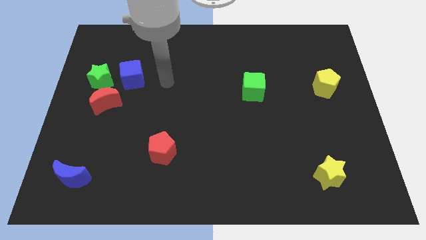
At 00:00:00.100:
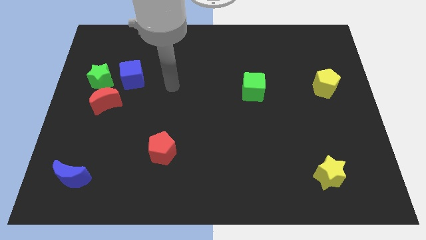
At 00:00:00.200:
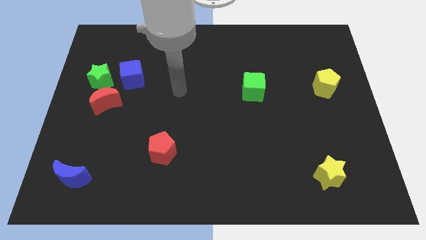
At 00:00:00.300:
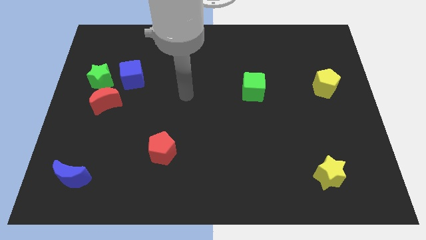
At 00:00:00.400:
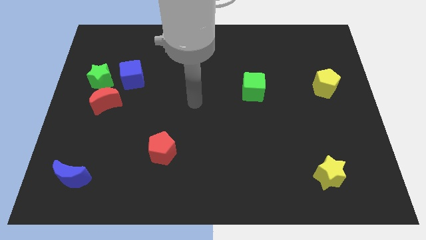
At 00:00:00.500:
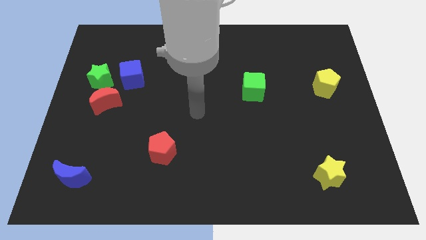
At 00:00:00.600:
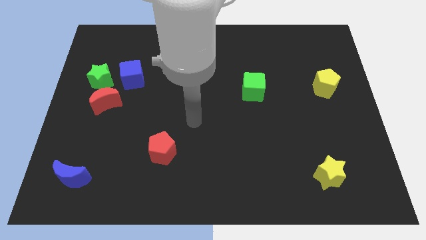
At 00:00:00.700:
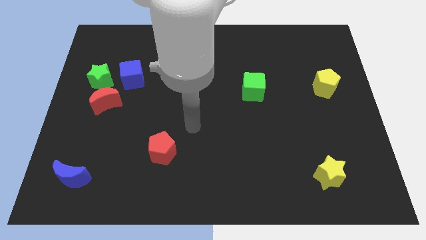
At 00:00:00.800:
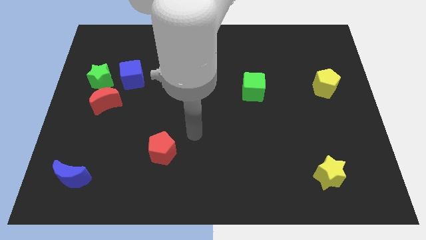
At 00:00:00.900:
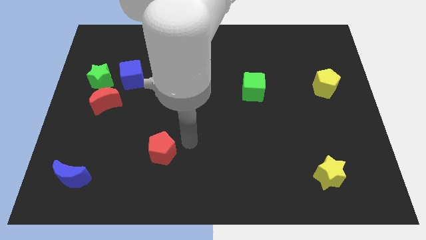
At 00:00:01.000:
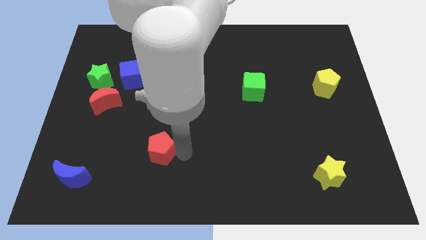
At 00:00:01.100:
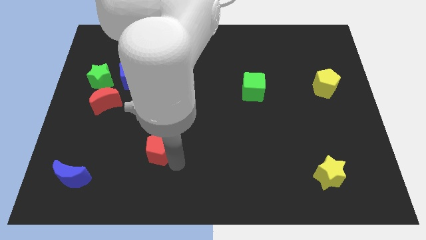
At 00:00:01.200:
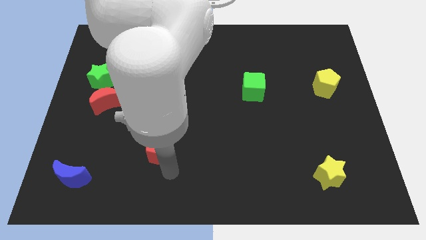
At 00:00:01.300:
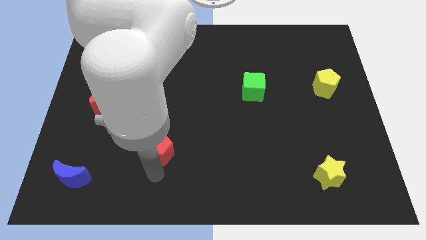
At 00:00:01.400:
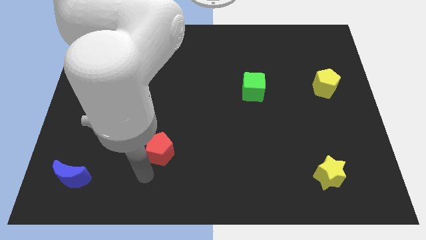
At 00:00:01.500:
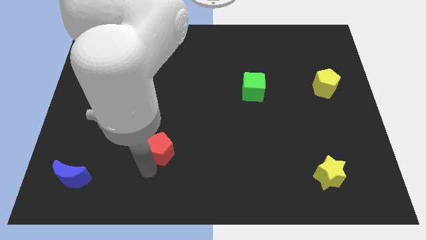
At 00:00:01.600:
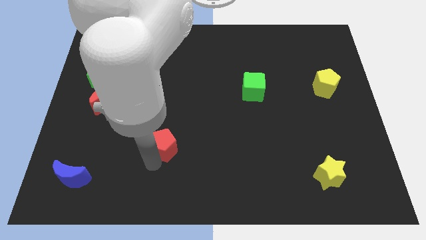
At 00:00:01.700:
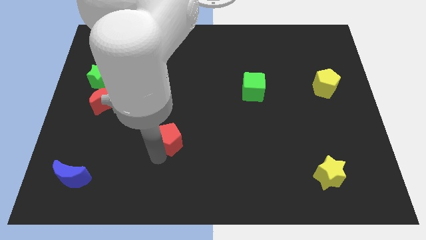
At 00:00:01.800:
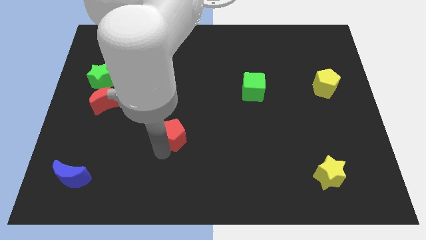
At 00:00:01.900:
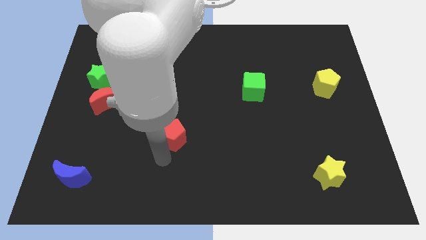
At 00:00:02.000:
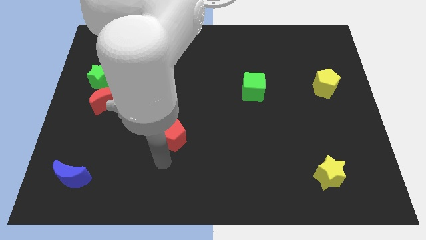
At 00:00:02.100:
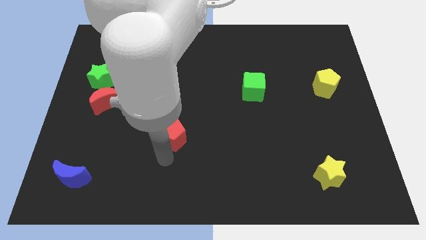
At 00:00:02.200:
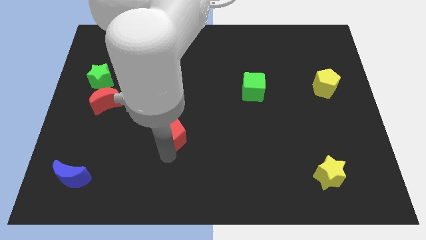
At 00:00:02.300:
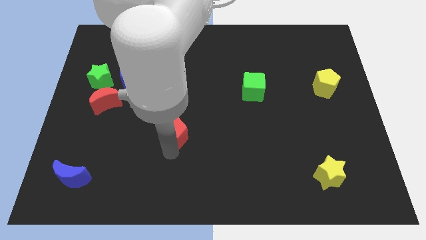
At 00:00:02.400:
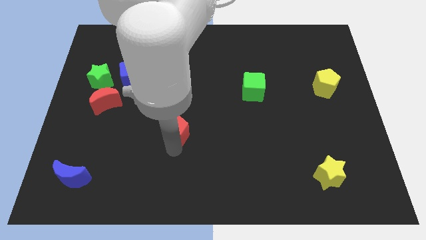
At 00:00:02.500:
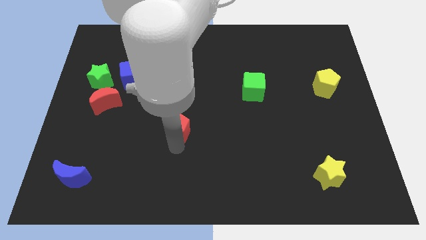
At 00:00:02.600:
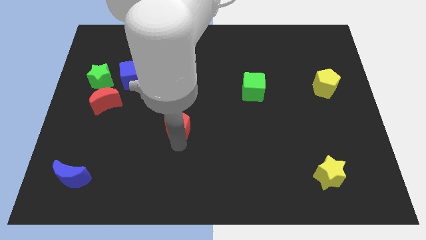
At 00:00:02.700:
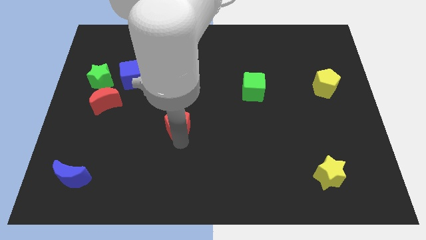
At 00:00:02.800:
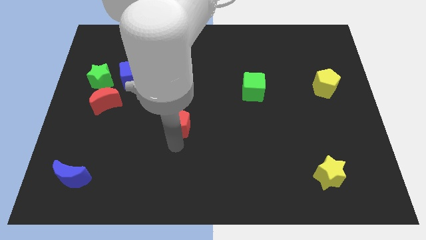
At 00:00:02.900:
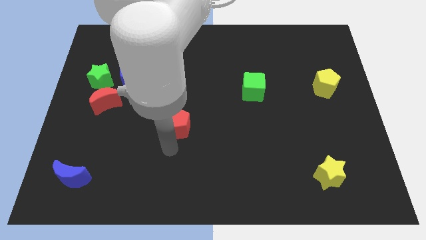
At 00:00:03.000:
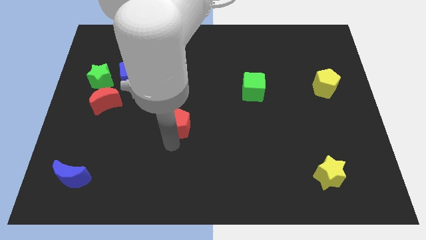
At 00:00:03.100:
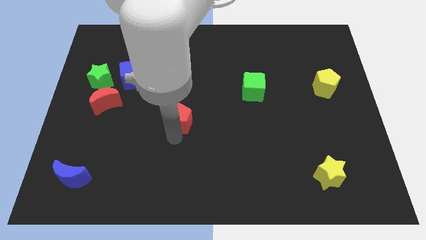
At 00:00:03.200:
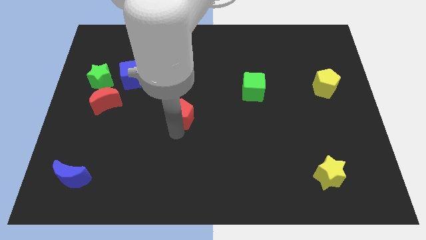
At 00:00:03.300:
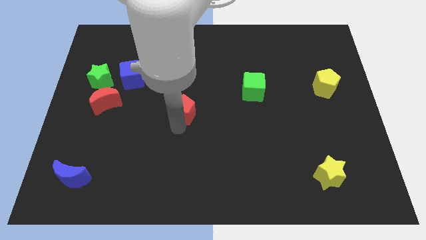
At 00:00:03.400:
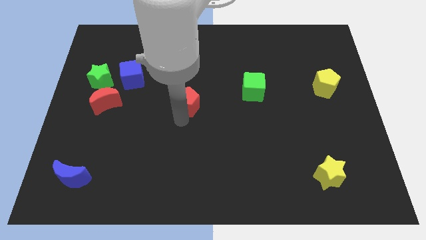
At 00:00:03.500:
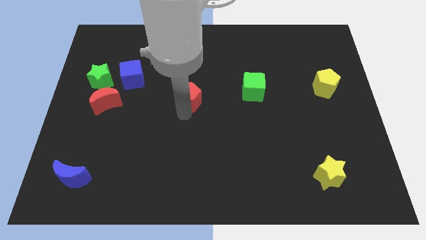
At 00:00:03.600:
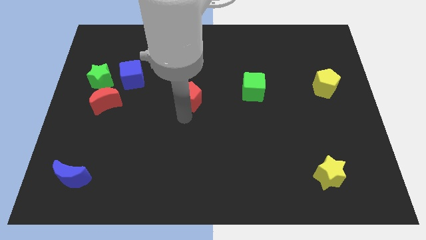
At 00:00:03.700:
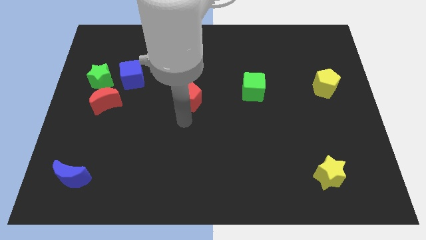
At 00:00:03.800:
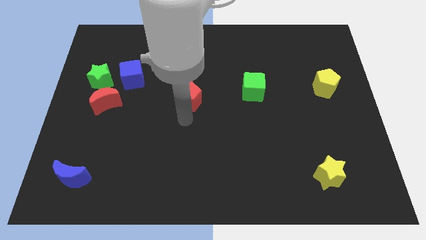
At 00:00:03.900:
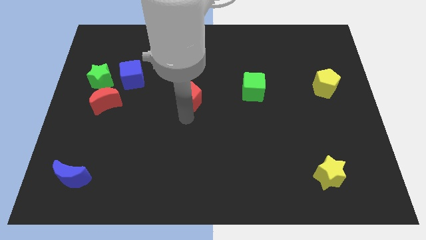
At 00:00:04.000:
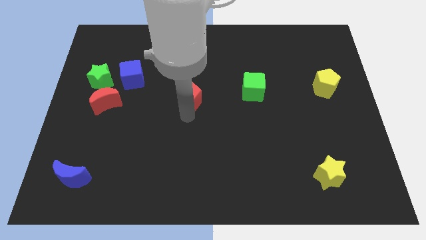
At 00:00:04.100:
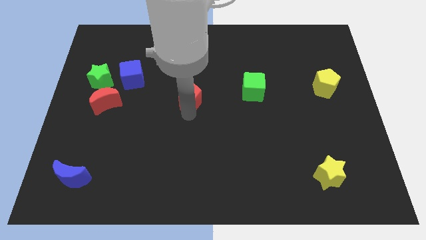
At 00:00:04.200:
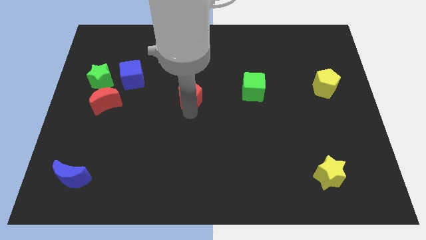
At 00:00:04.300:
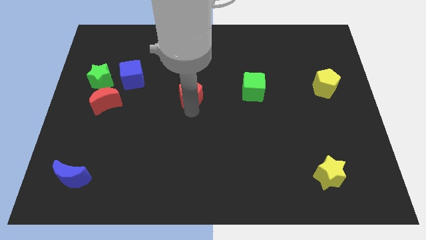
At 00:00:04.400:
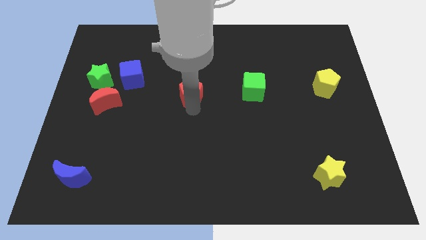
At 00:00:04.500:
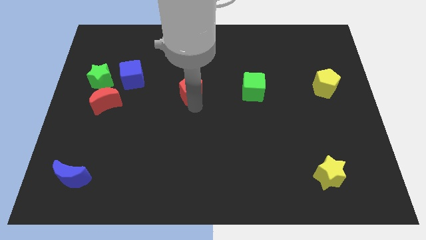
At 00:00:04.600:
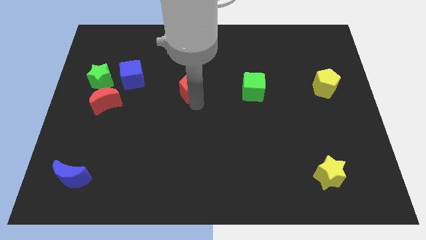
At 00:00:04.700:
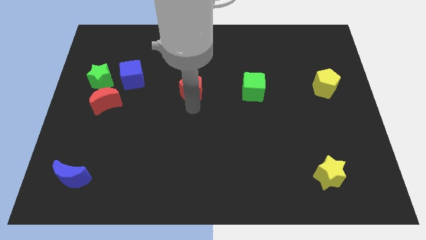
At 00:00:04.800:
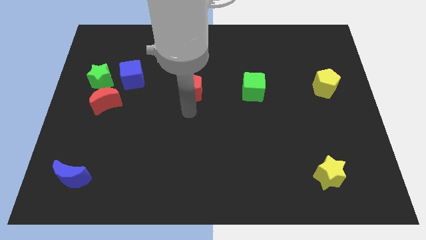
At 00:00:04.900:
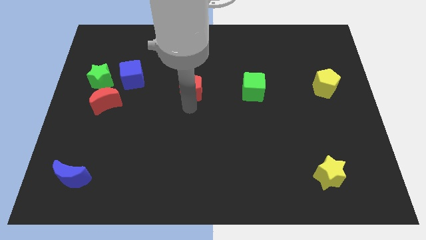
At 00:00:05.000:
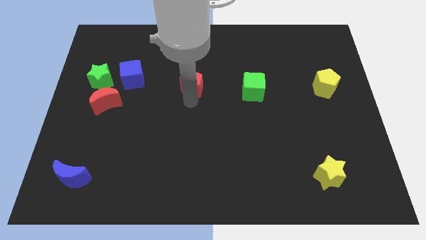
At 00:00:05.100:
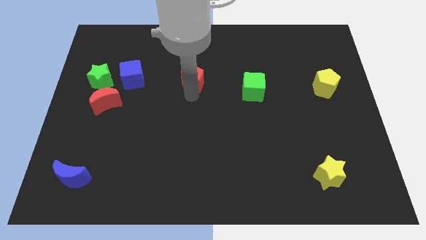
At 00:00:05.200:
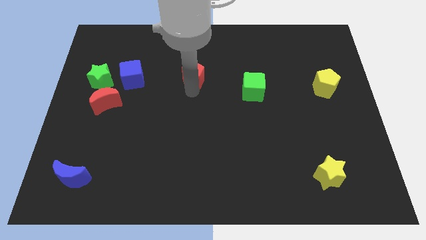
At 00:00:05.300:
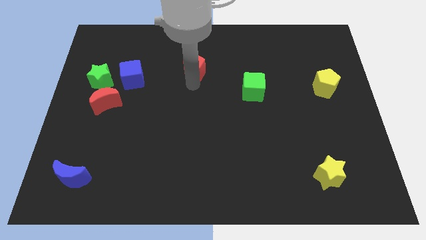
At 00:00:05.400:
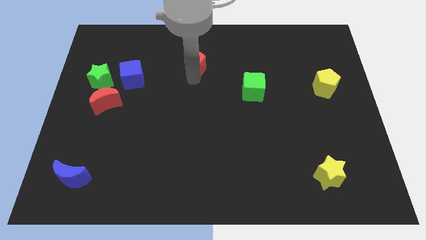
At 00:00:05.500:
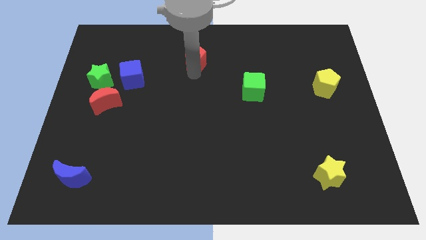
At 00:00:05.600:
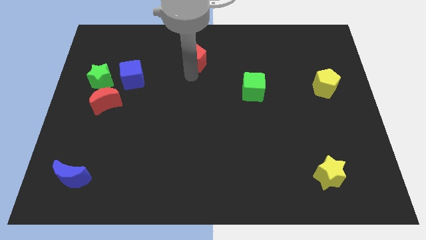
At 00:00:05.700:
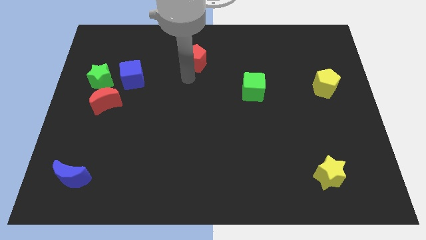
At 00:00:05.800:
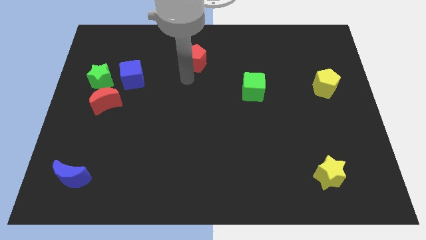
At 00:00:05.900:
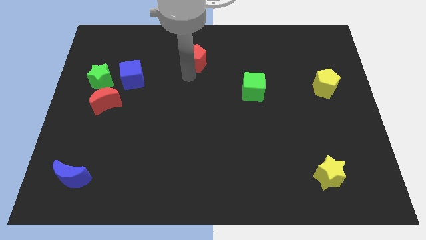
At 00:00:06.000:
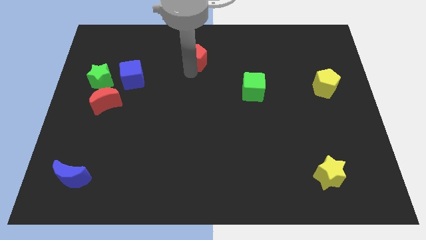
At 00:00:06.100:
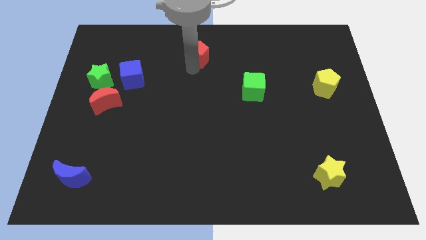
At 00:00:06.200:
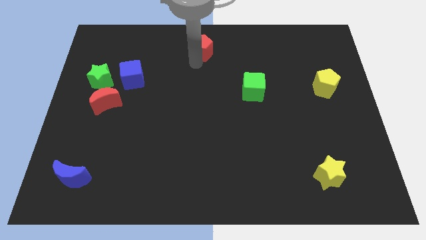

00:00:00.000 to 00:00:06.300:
push the red pentagon to the top side
